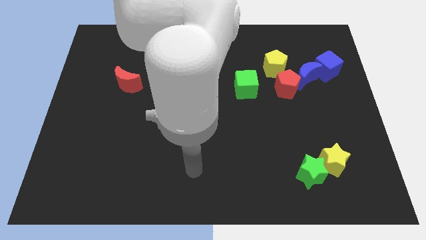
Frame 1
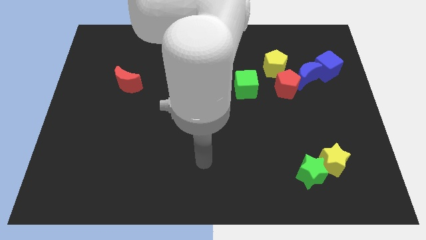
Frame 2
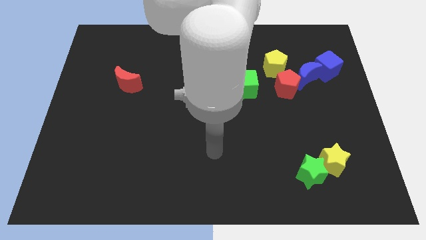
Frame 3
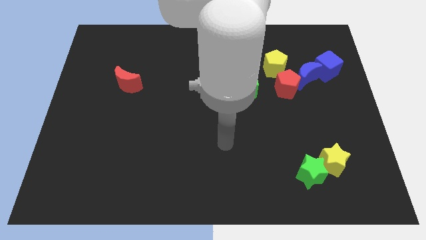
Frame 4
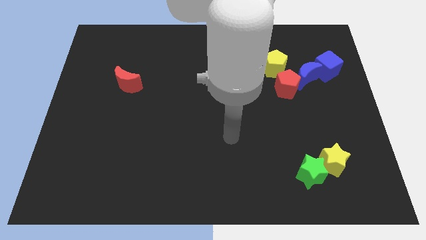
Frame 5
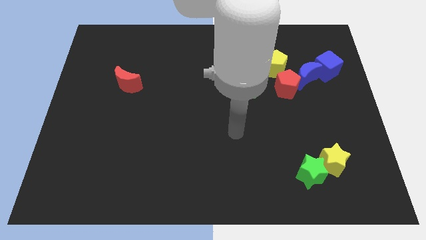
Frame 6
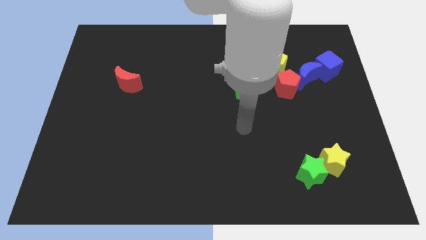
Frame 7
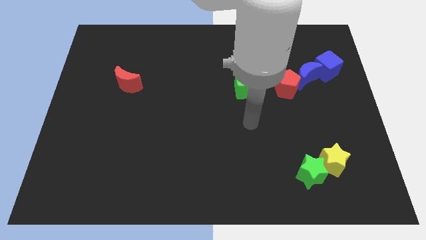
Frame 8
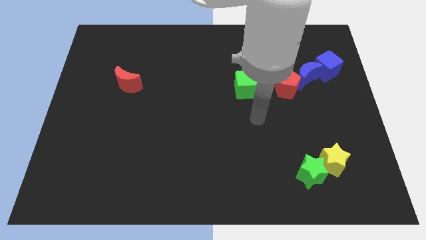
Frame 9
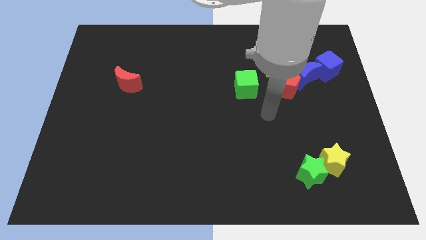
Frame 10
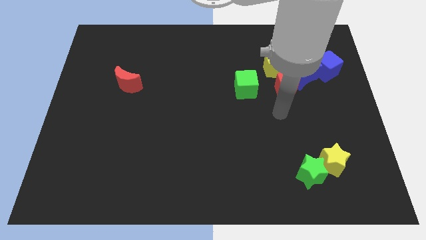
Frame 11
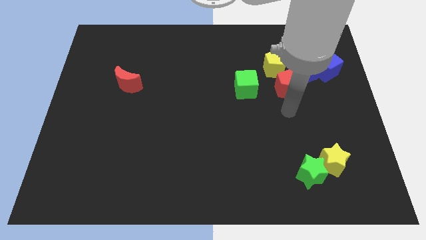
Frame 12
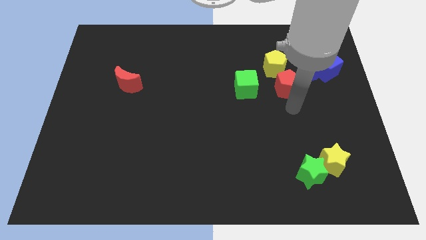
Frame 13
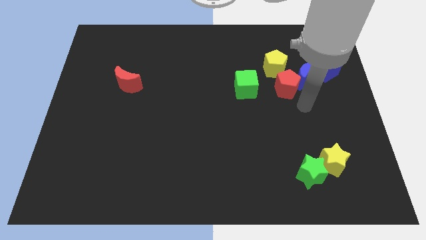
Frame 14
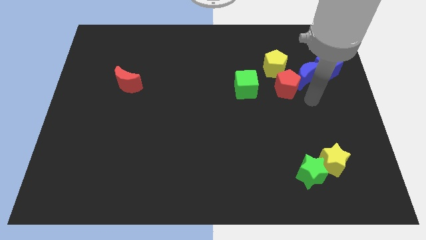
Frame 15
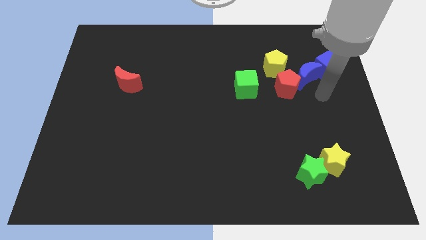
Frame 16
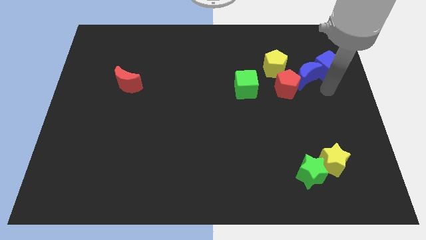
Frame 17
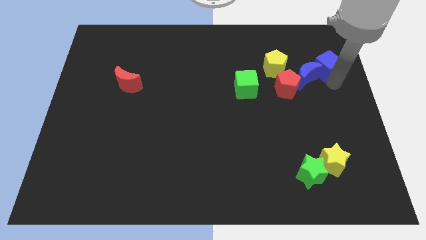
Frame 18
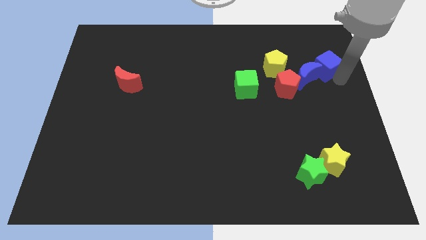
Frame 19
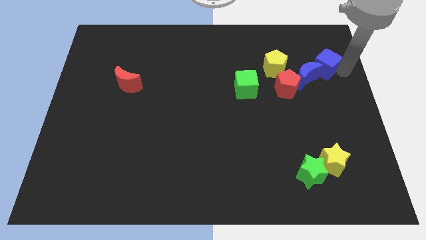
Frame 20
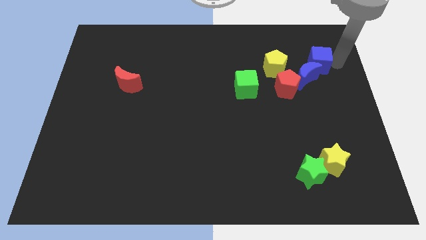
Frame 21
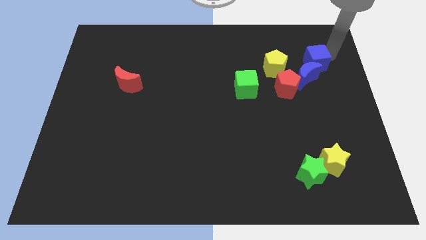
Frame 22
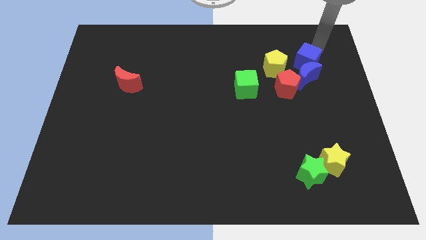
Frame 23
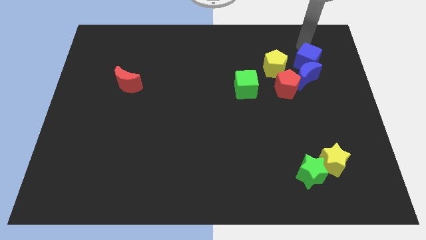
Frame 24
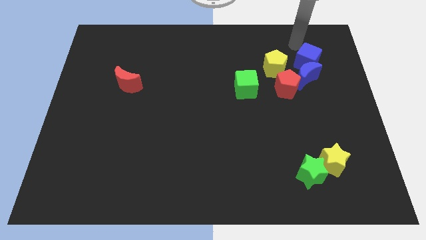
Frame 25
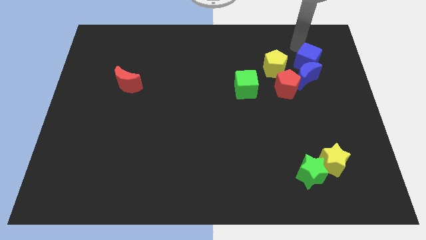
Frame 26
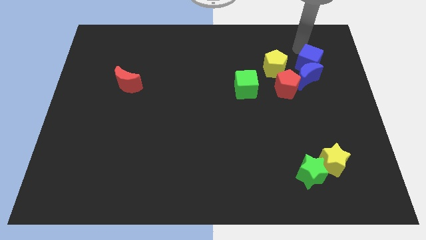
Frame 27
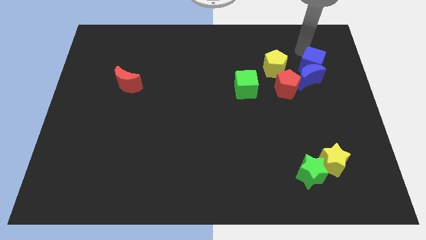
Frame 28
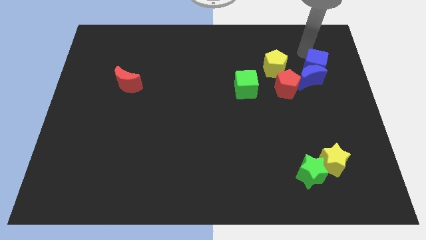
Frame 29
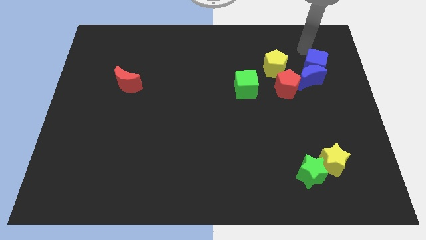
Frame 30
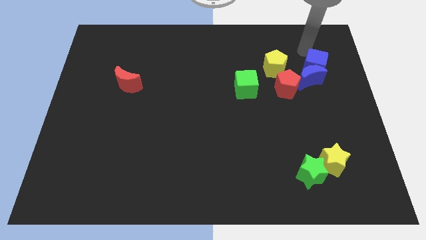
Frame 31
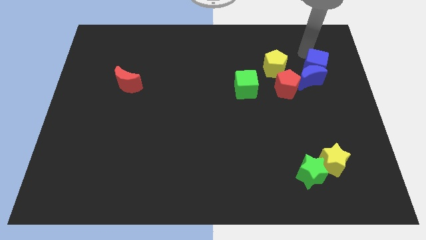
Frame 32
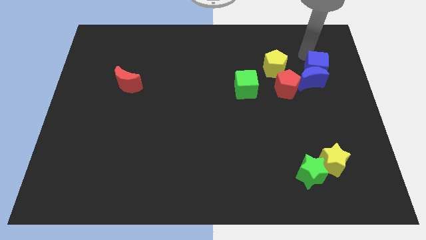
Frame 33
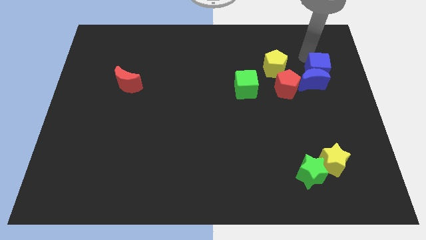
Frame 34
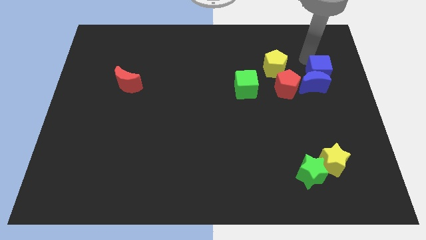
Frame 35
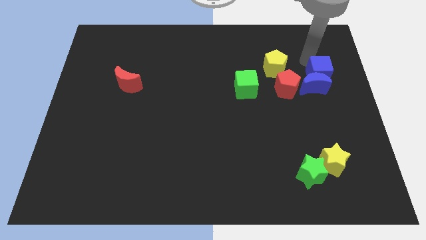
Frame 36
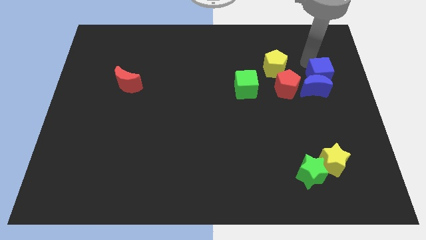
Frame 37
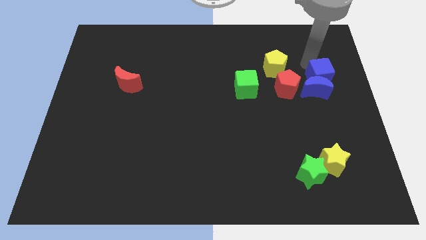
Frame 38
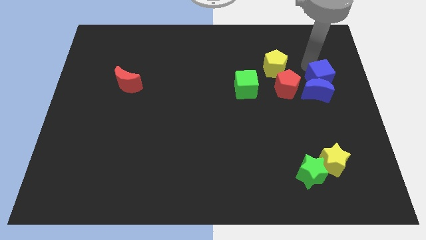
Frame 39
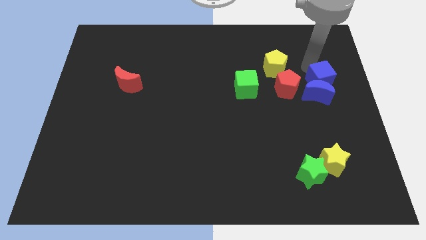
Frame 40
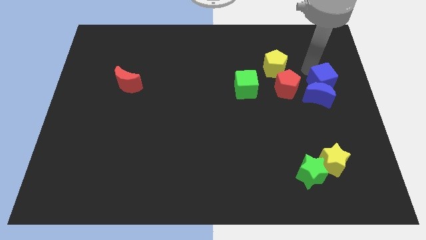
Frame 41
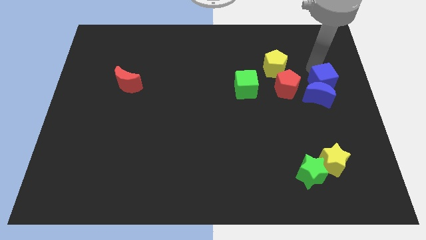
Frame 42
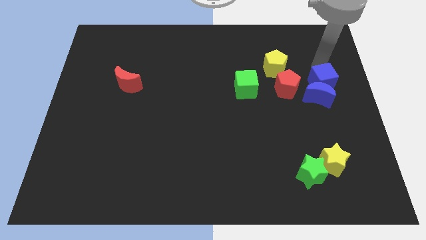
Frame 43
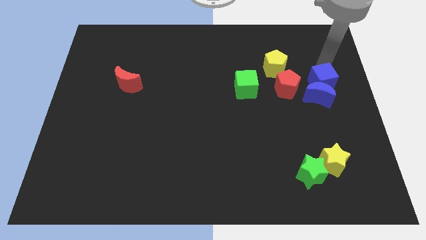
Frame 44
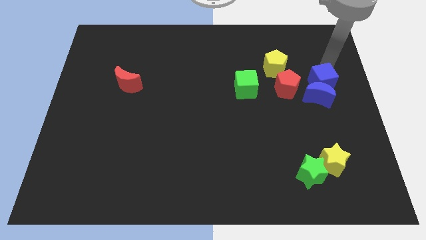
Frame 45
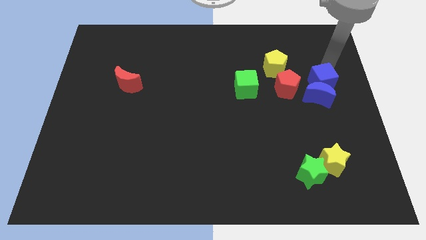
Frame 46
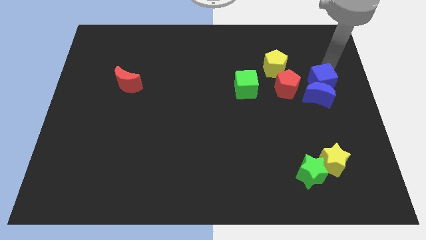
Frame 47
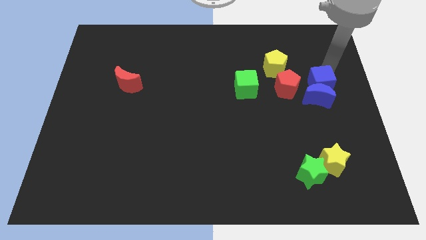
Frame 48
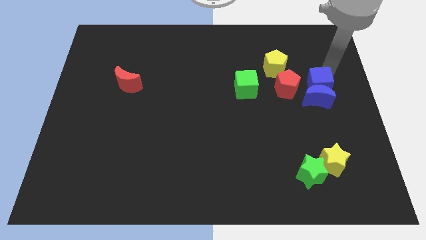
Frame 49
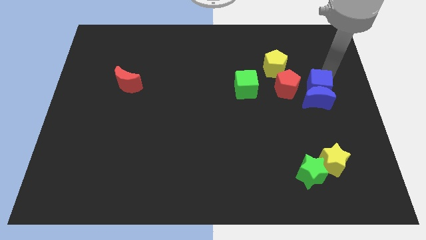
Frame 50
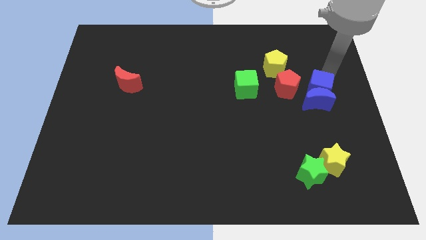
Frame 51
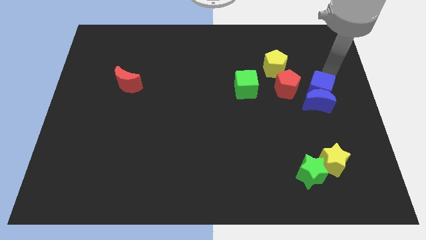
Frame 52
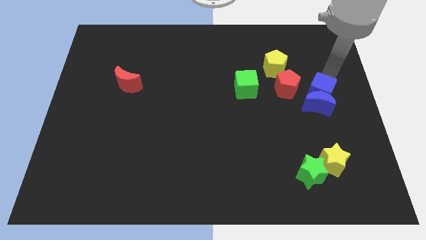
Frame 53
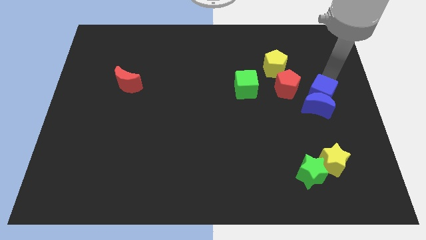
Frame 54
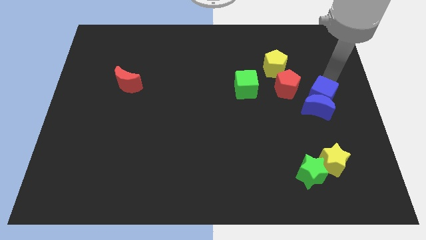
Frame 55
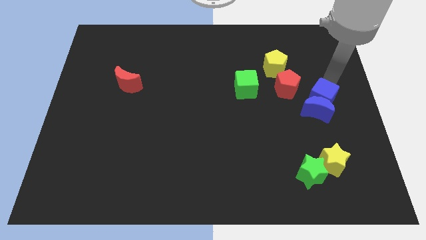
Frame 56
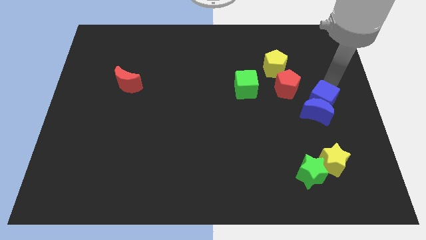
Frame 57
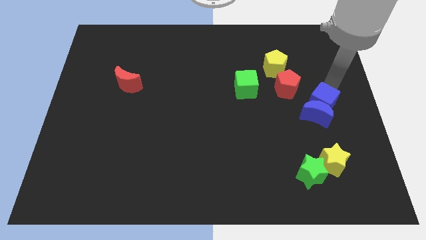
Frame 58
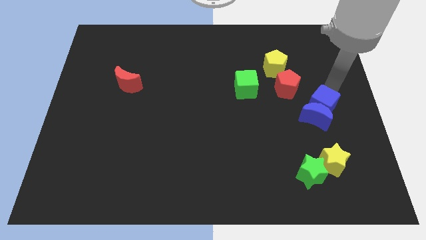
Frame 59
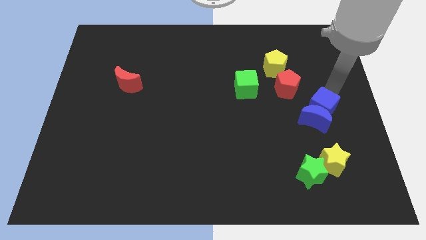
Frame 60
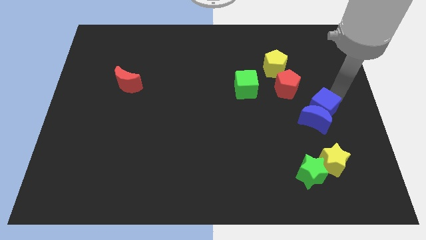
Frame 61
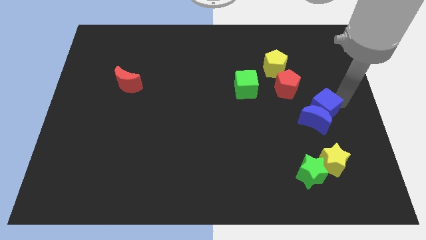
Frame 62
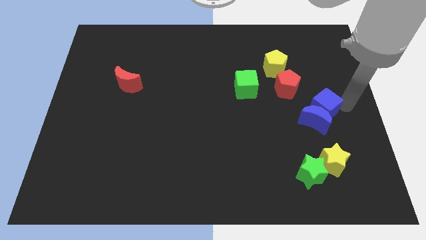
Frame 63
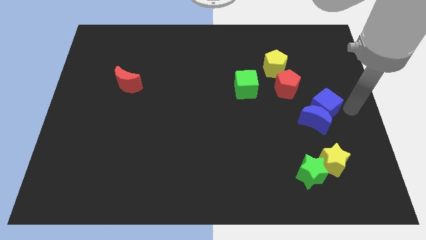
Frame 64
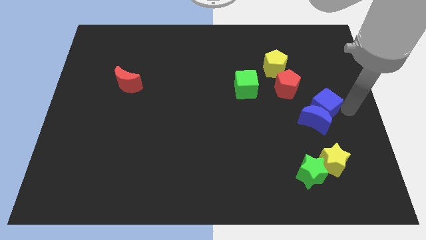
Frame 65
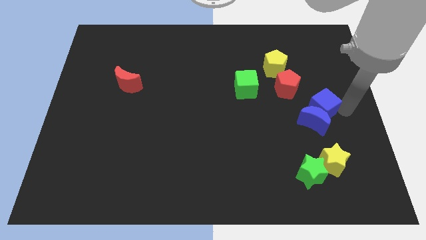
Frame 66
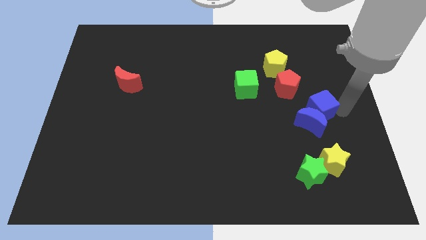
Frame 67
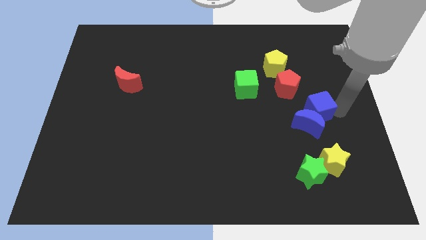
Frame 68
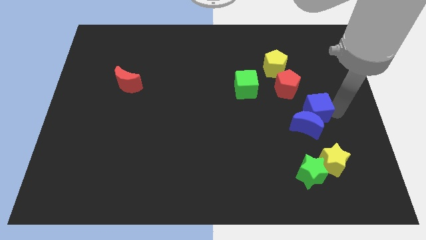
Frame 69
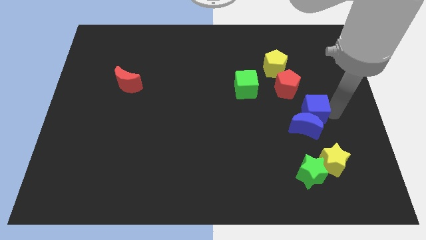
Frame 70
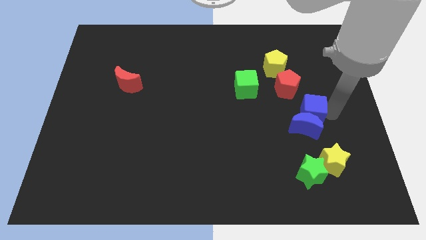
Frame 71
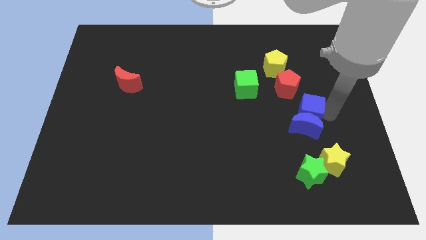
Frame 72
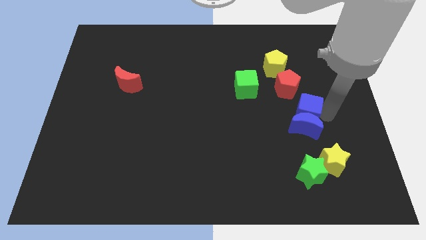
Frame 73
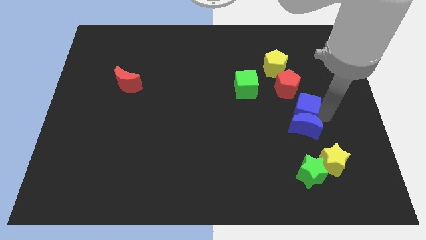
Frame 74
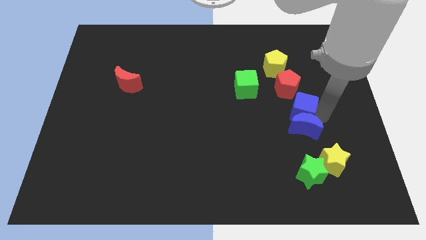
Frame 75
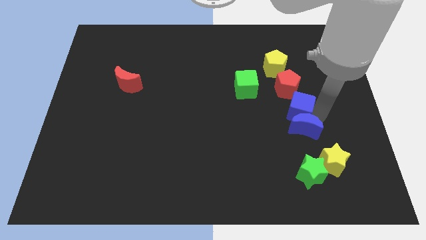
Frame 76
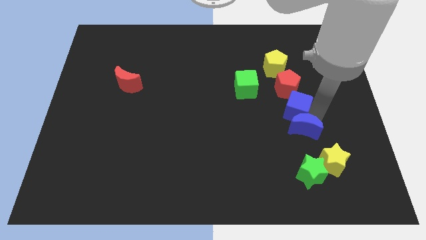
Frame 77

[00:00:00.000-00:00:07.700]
move the blue cube below the yellow pentagon
